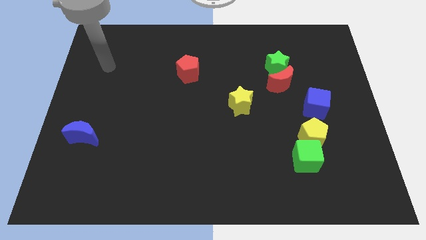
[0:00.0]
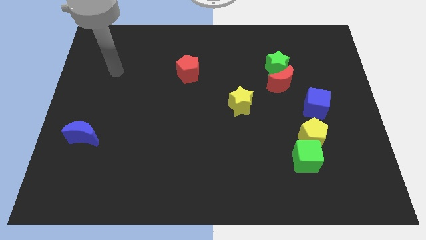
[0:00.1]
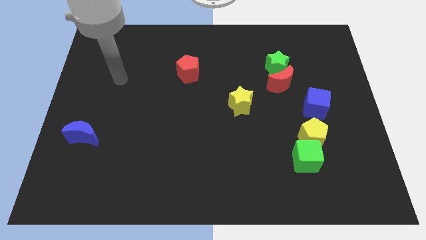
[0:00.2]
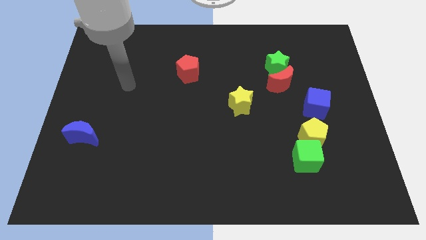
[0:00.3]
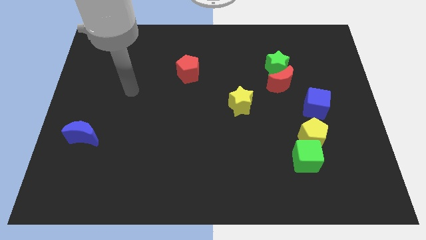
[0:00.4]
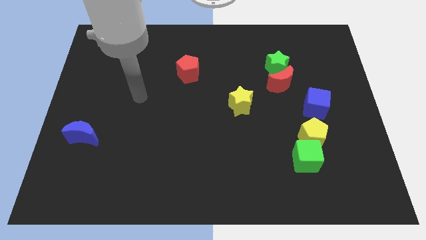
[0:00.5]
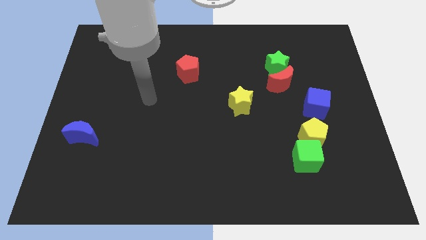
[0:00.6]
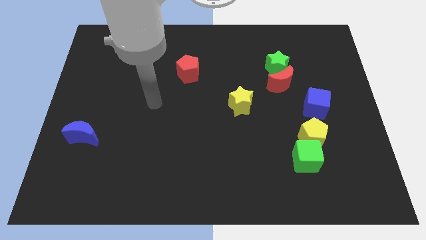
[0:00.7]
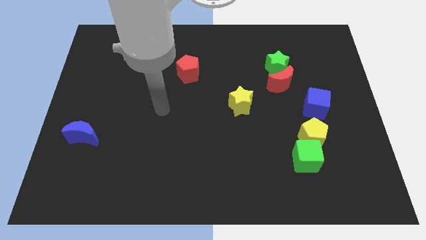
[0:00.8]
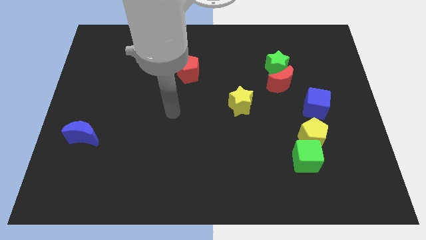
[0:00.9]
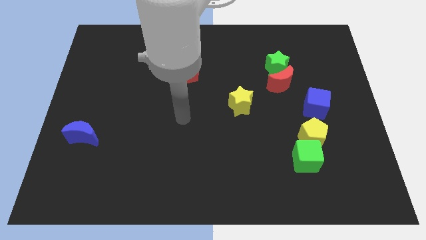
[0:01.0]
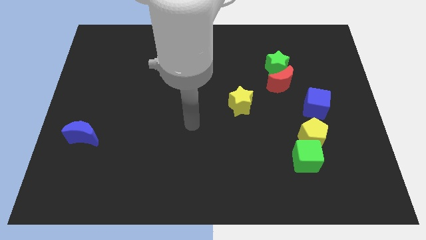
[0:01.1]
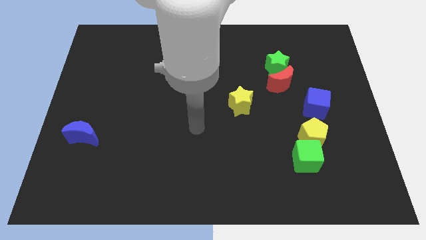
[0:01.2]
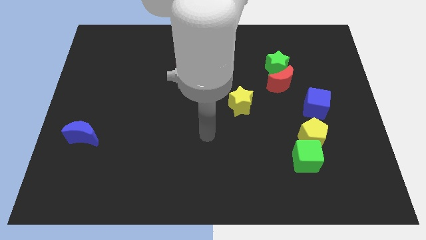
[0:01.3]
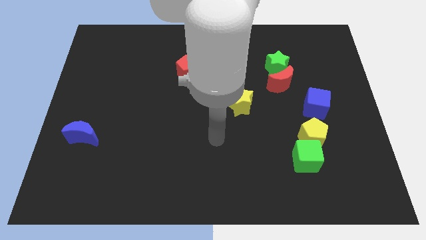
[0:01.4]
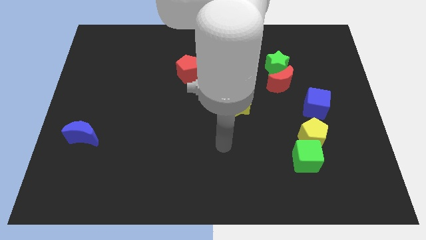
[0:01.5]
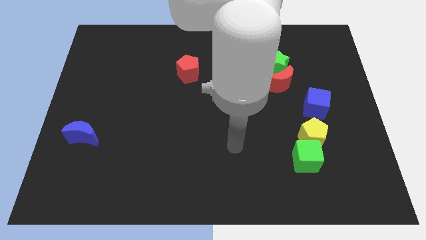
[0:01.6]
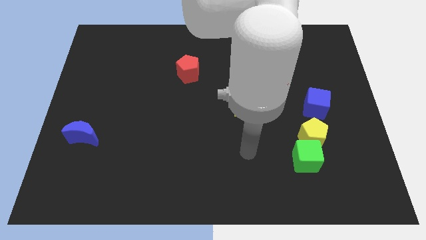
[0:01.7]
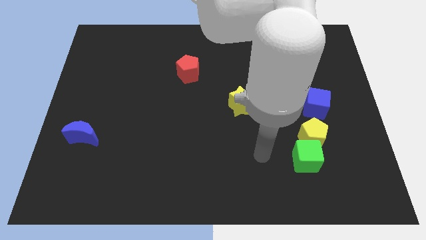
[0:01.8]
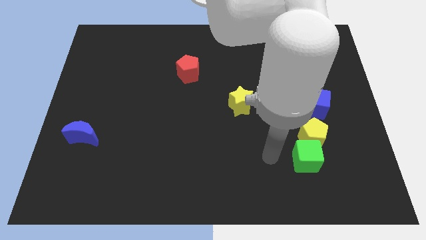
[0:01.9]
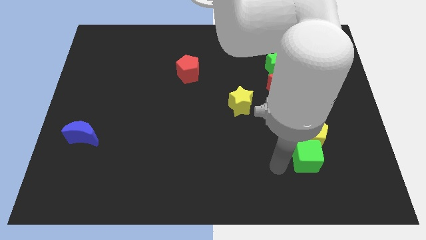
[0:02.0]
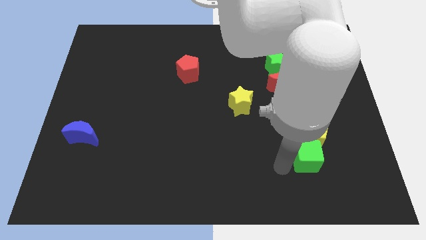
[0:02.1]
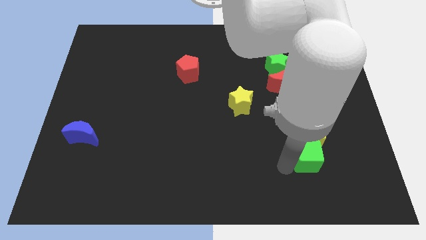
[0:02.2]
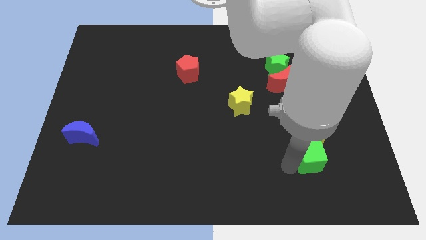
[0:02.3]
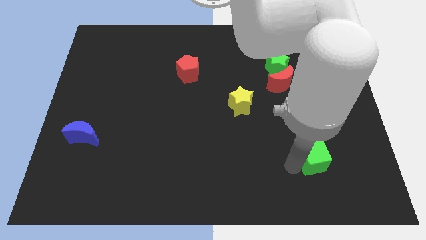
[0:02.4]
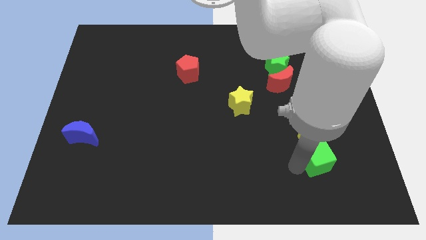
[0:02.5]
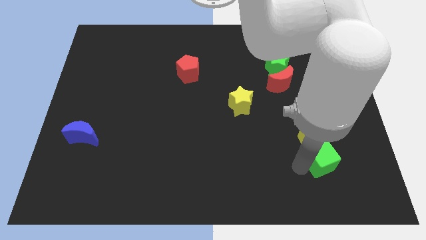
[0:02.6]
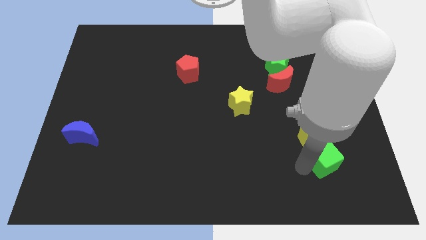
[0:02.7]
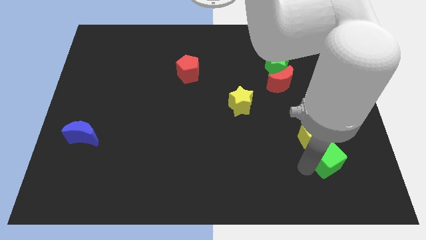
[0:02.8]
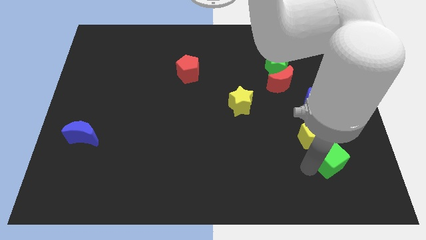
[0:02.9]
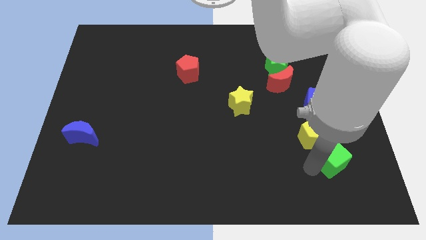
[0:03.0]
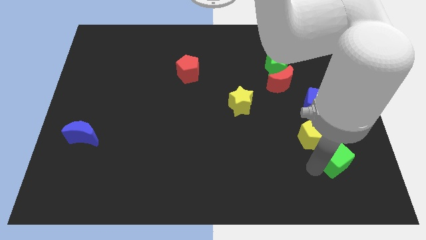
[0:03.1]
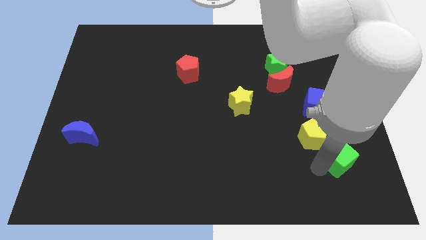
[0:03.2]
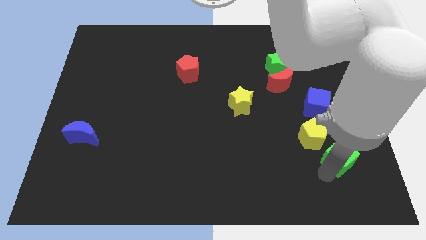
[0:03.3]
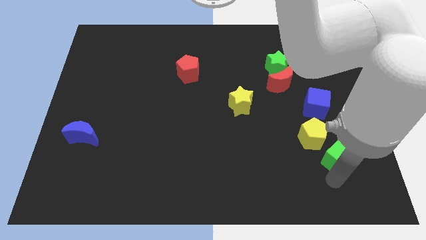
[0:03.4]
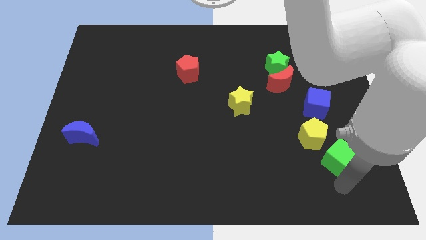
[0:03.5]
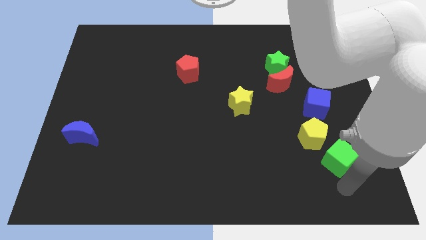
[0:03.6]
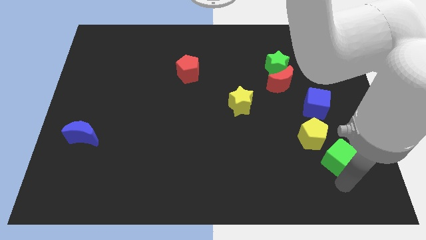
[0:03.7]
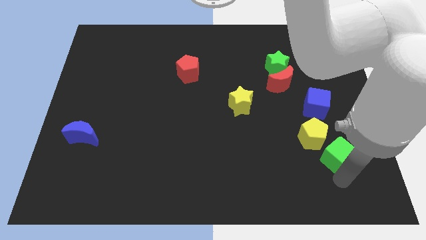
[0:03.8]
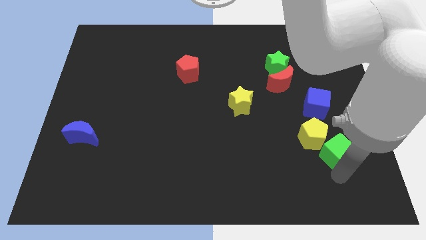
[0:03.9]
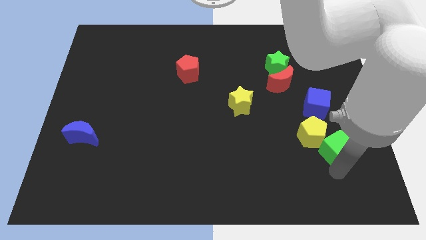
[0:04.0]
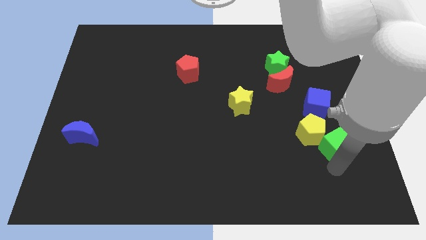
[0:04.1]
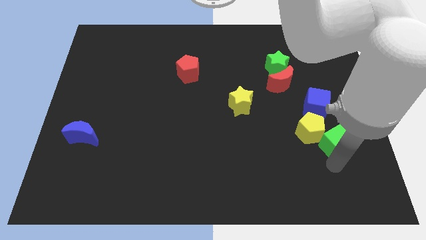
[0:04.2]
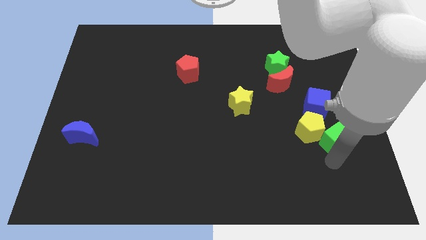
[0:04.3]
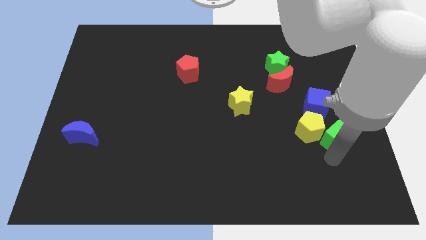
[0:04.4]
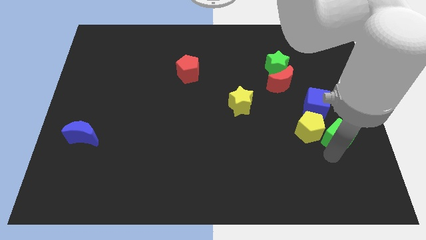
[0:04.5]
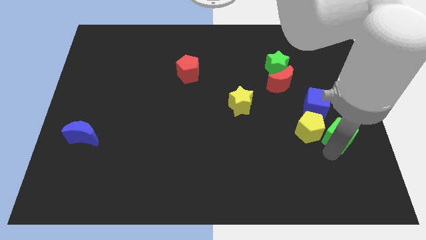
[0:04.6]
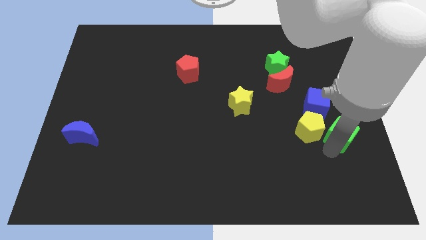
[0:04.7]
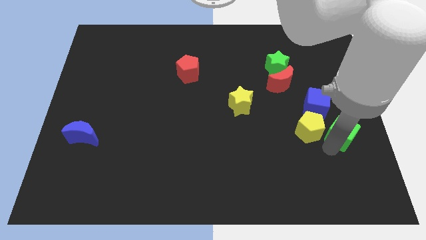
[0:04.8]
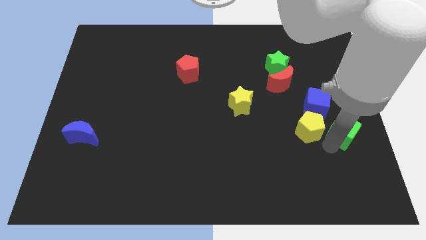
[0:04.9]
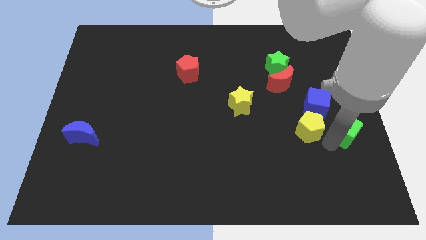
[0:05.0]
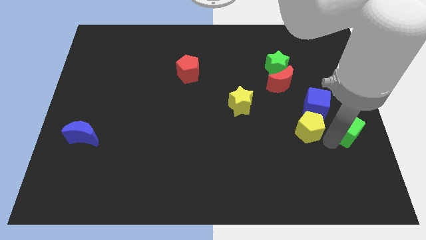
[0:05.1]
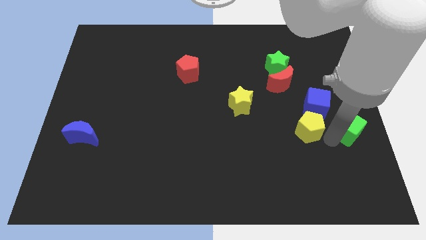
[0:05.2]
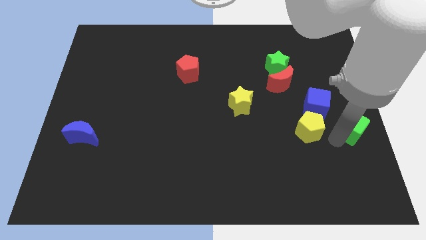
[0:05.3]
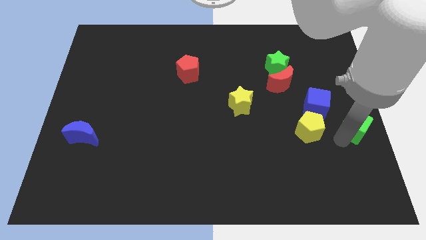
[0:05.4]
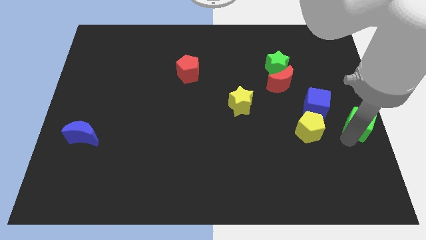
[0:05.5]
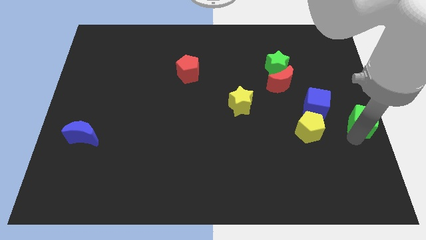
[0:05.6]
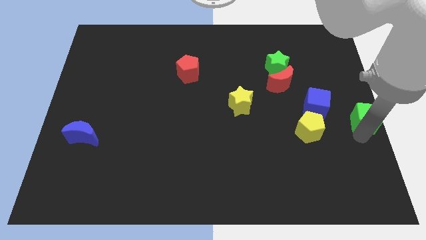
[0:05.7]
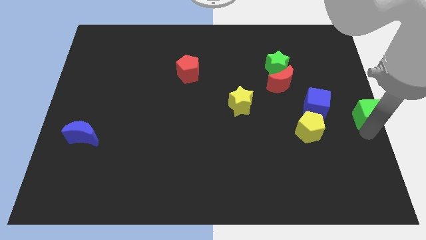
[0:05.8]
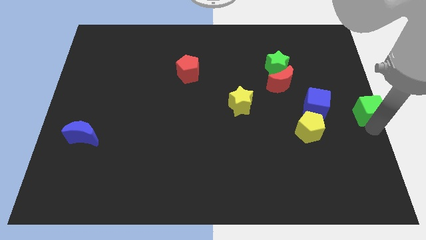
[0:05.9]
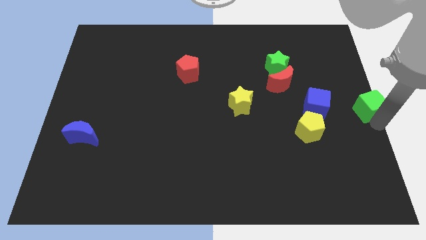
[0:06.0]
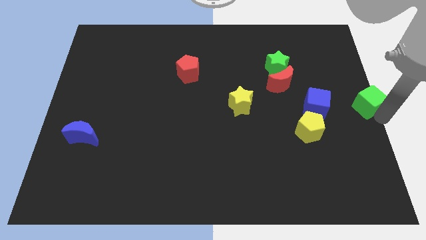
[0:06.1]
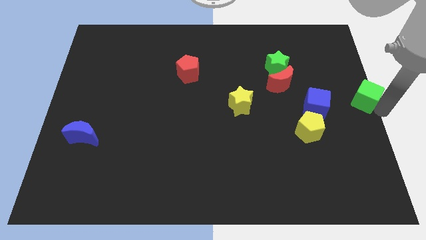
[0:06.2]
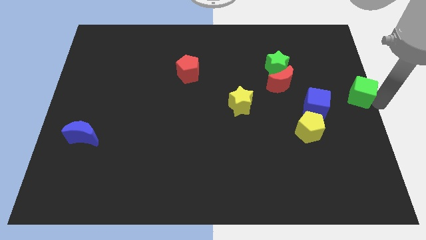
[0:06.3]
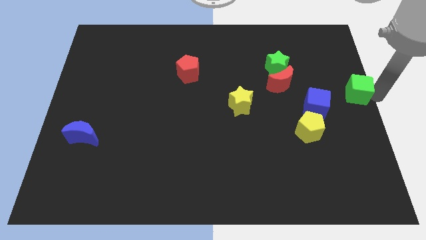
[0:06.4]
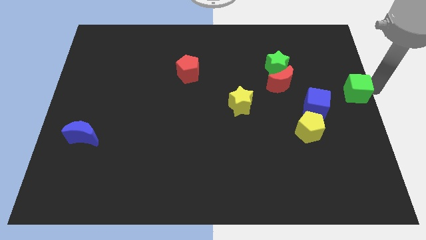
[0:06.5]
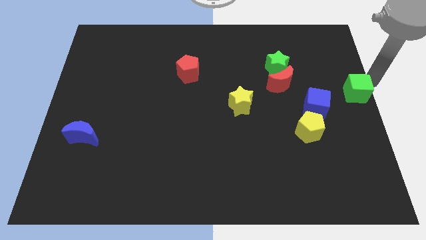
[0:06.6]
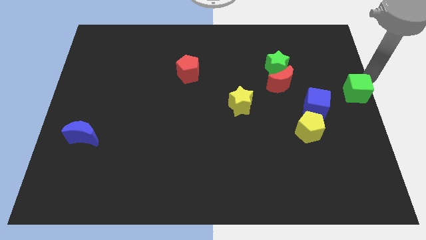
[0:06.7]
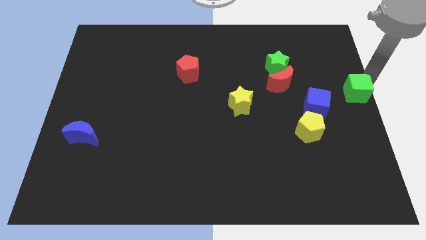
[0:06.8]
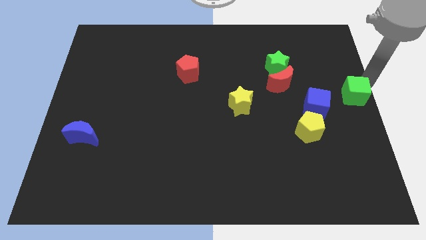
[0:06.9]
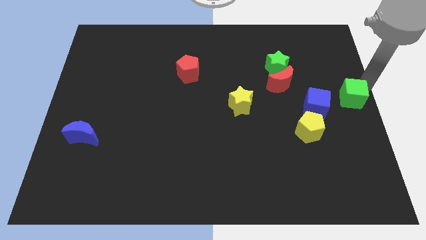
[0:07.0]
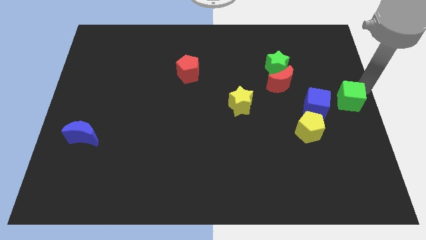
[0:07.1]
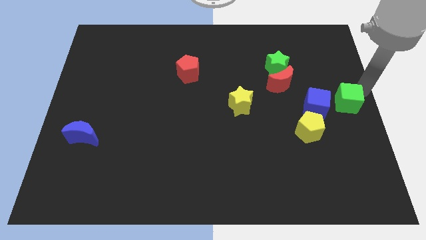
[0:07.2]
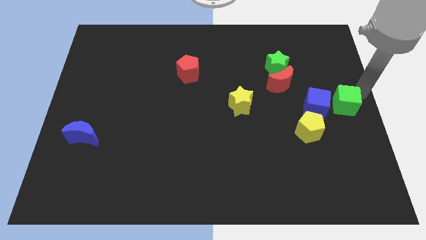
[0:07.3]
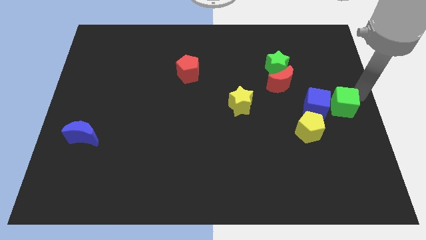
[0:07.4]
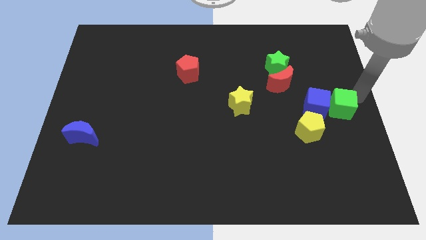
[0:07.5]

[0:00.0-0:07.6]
slide the green cube towards the blue cube
